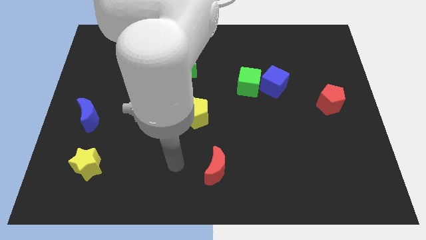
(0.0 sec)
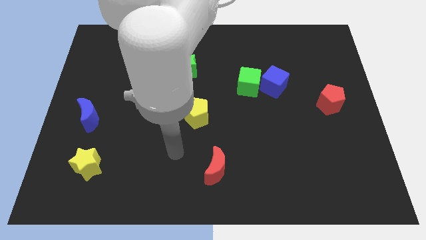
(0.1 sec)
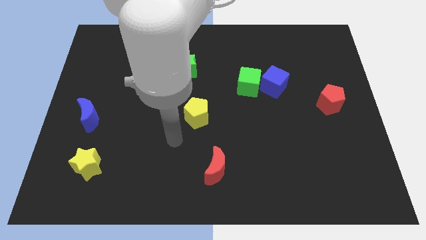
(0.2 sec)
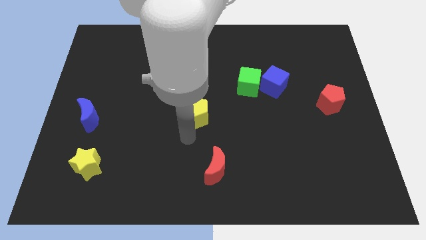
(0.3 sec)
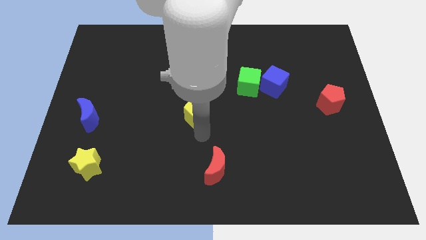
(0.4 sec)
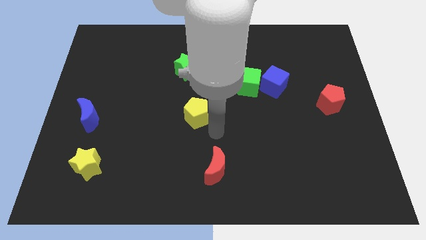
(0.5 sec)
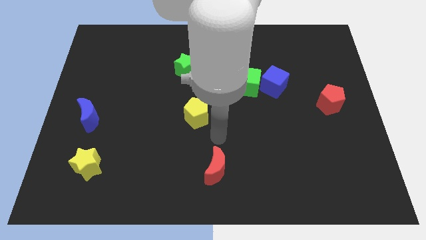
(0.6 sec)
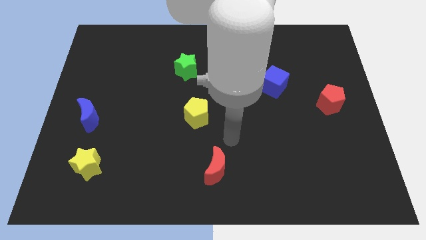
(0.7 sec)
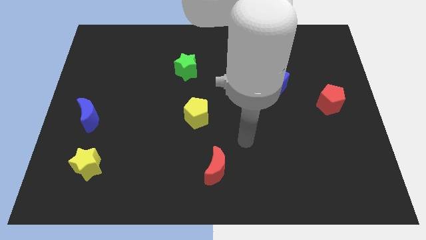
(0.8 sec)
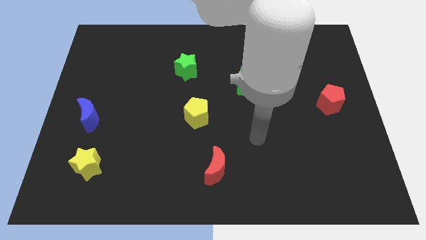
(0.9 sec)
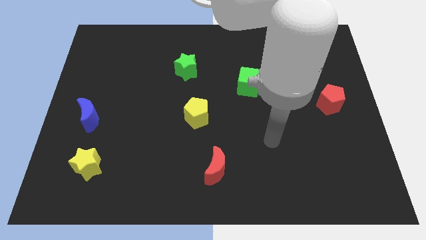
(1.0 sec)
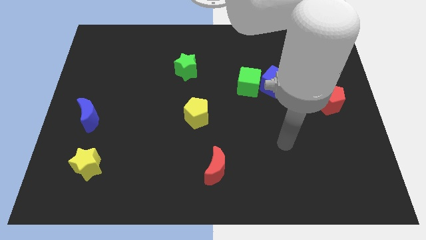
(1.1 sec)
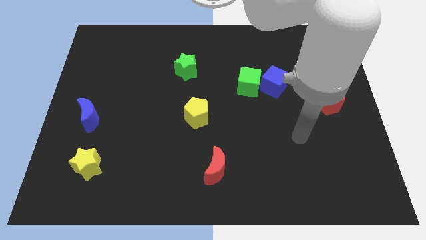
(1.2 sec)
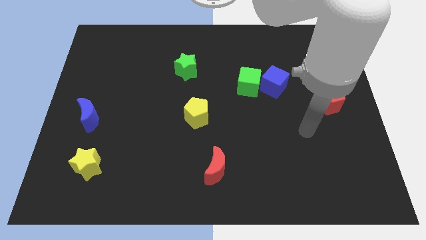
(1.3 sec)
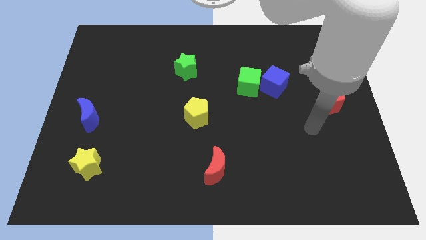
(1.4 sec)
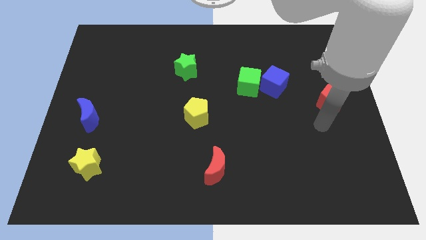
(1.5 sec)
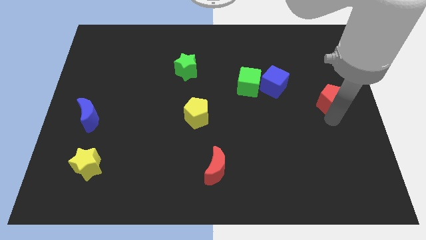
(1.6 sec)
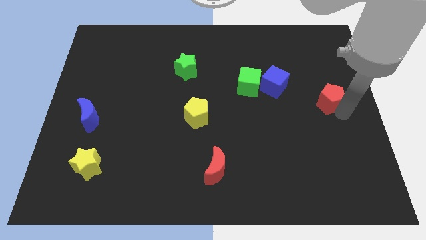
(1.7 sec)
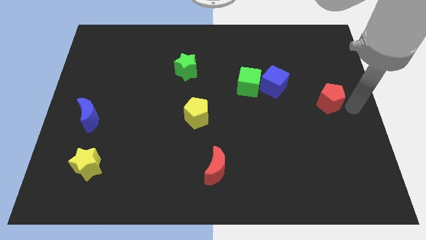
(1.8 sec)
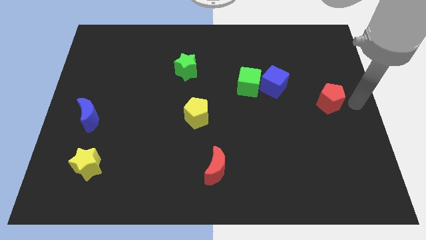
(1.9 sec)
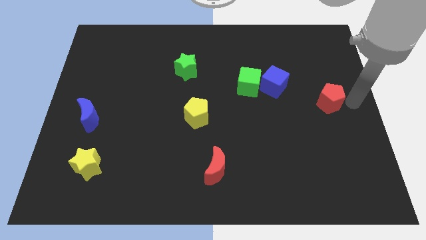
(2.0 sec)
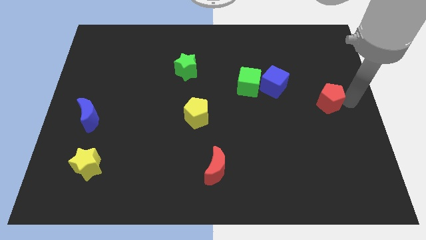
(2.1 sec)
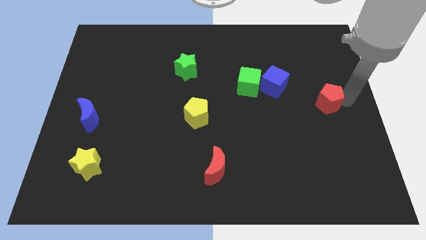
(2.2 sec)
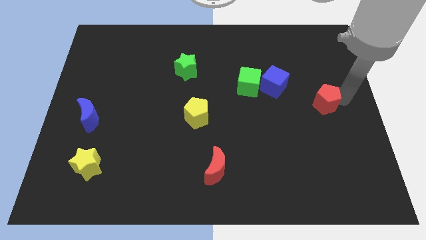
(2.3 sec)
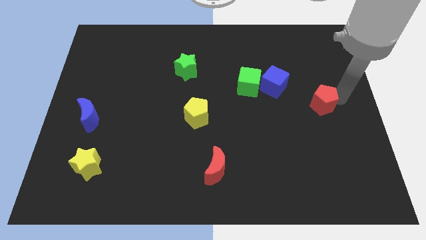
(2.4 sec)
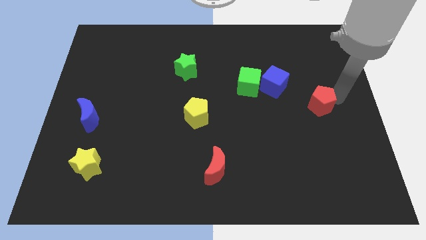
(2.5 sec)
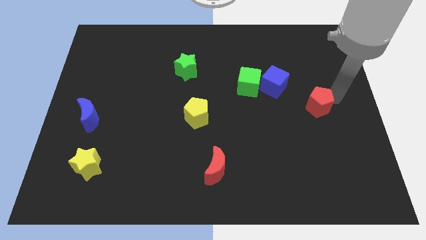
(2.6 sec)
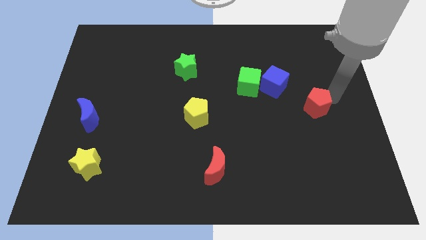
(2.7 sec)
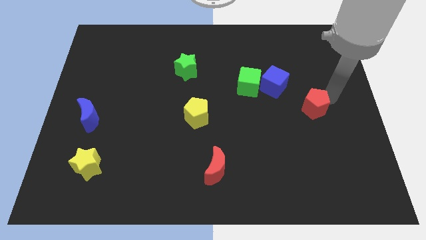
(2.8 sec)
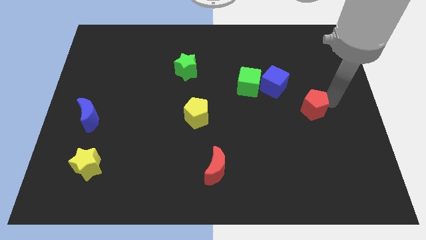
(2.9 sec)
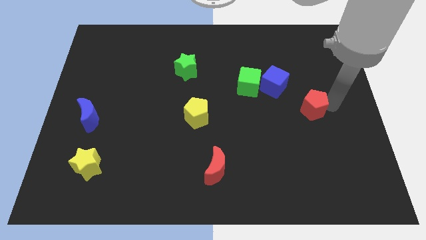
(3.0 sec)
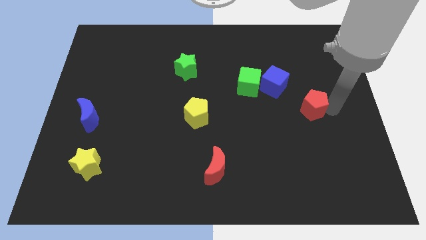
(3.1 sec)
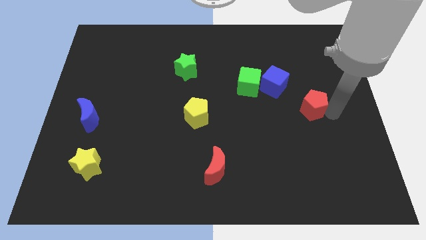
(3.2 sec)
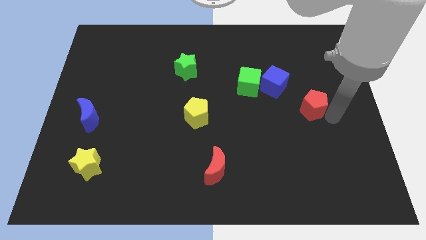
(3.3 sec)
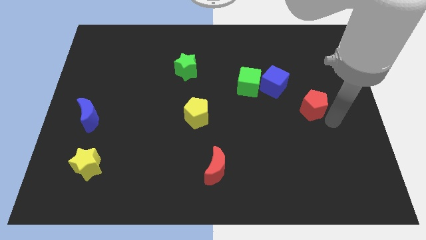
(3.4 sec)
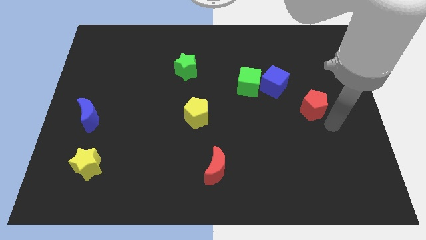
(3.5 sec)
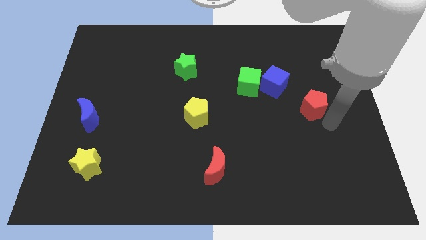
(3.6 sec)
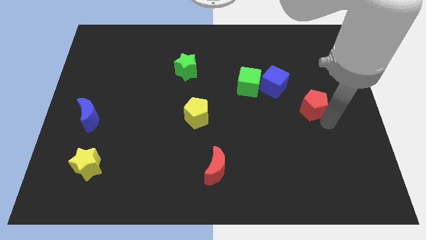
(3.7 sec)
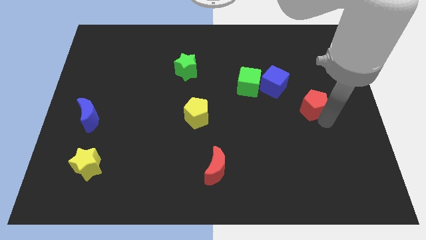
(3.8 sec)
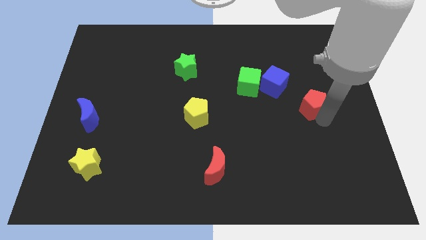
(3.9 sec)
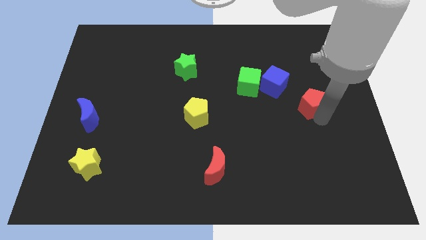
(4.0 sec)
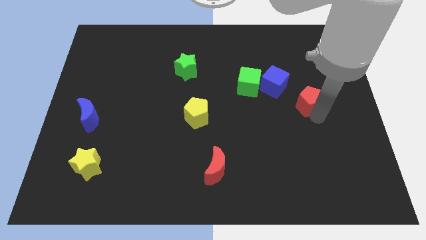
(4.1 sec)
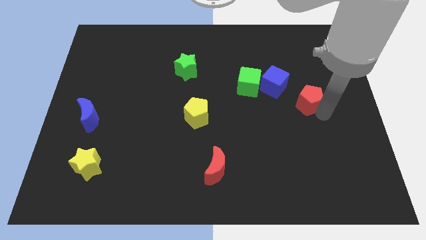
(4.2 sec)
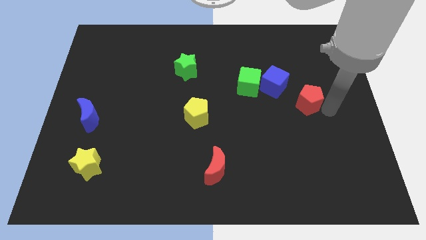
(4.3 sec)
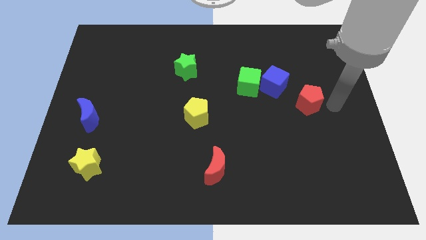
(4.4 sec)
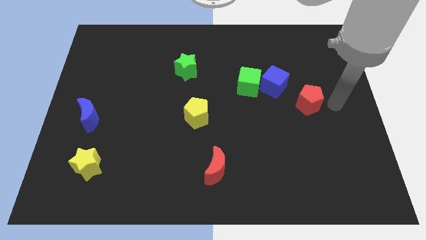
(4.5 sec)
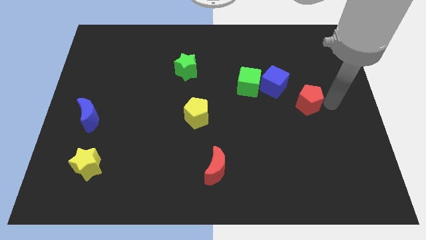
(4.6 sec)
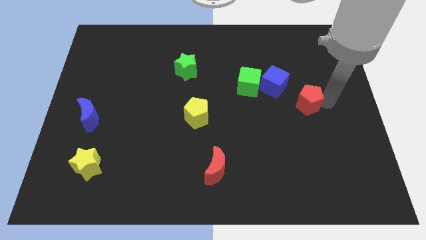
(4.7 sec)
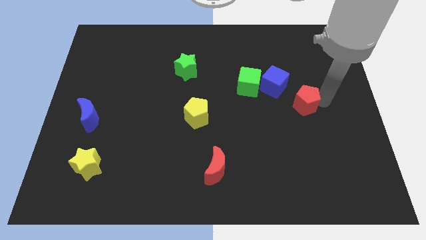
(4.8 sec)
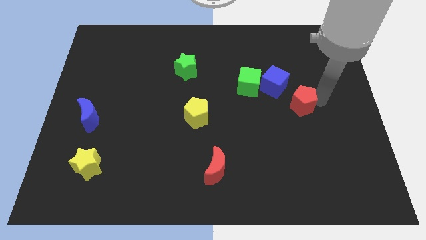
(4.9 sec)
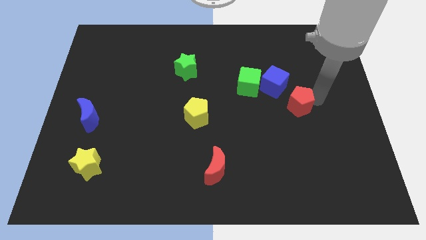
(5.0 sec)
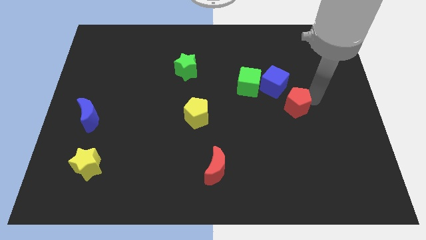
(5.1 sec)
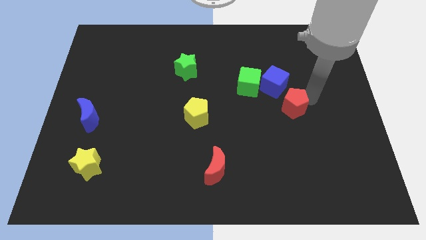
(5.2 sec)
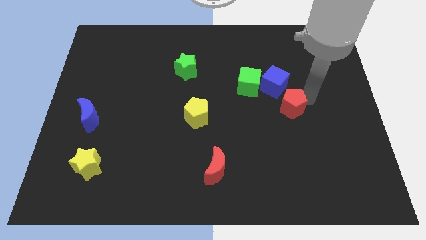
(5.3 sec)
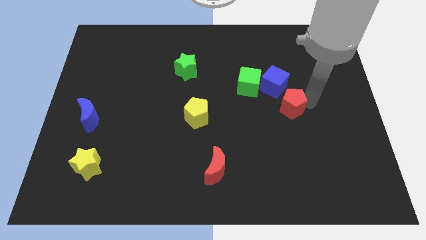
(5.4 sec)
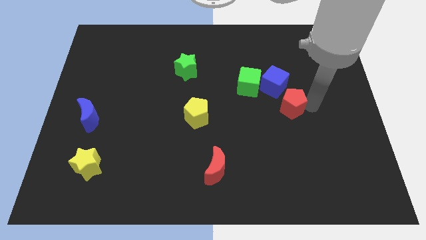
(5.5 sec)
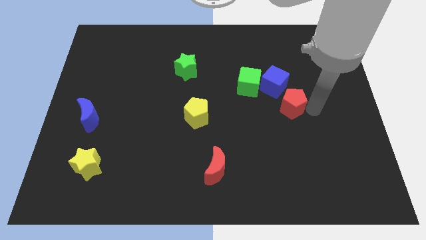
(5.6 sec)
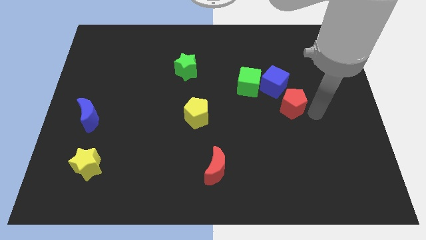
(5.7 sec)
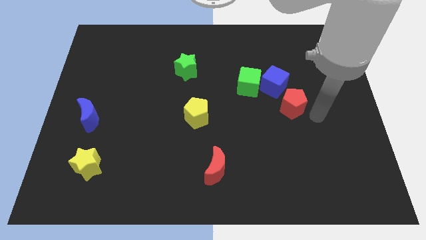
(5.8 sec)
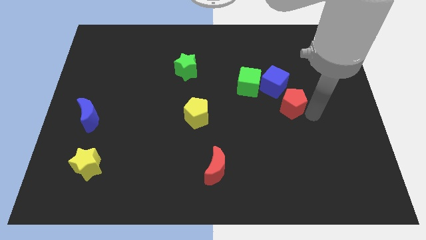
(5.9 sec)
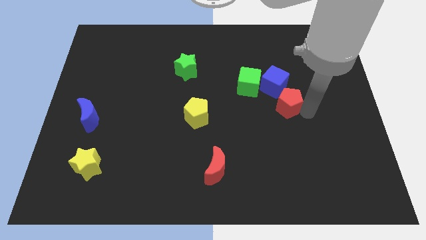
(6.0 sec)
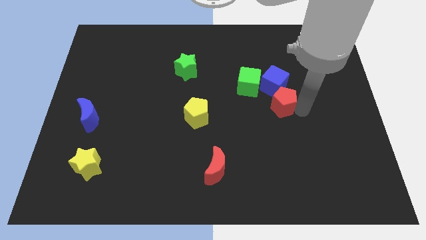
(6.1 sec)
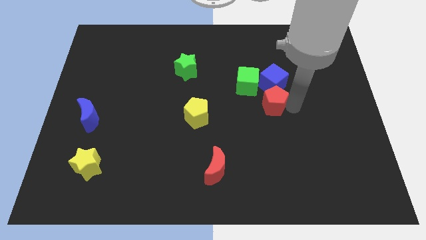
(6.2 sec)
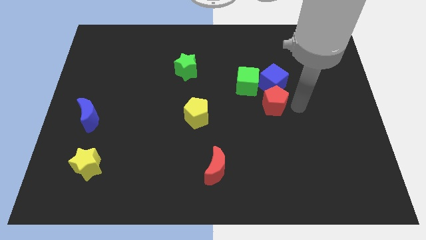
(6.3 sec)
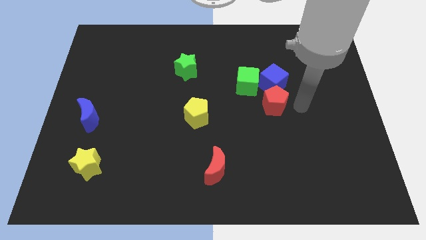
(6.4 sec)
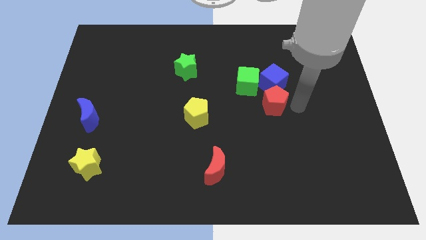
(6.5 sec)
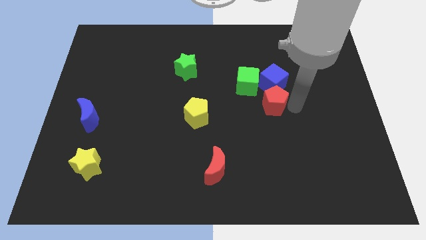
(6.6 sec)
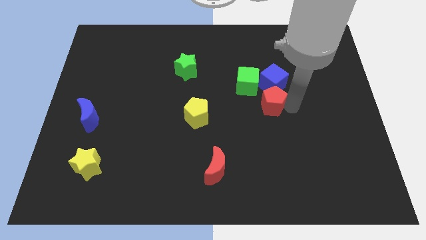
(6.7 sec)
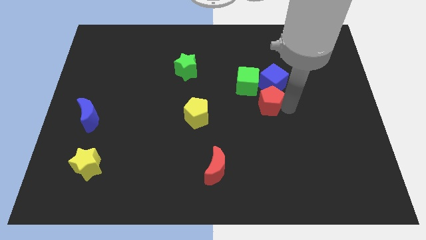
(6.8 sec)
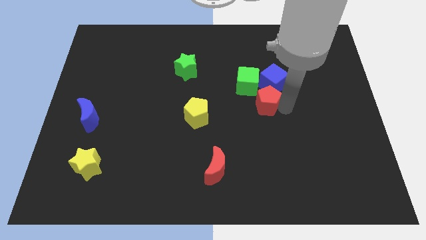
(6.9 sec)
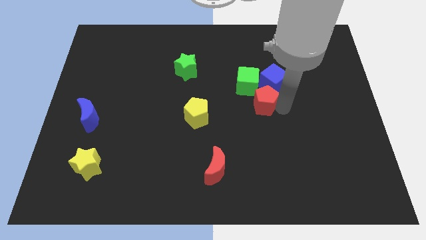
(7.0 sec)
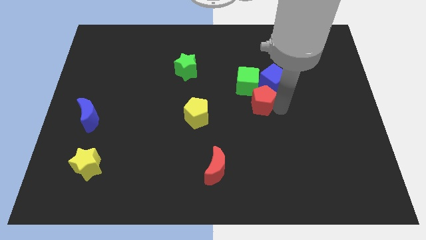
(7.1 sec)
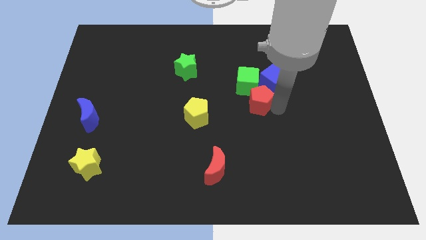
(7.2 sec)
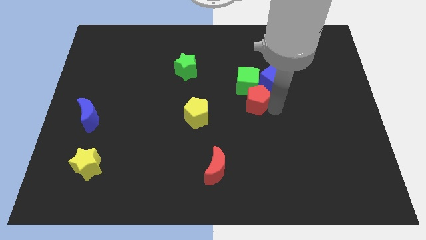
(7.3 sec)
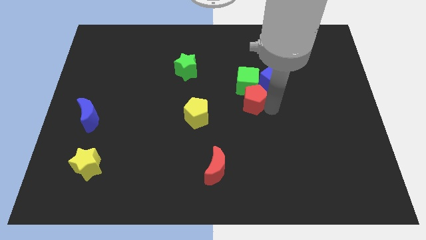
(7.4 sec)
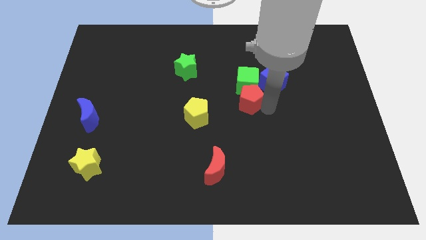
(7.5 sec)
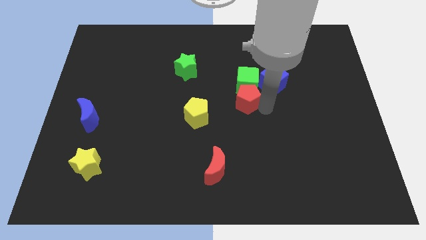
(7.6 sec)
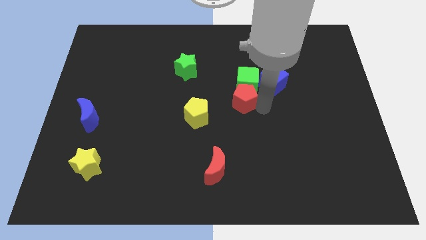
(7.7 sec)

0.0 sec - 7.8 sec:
slide the red pentagon to the left

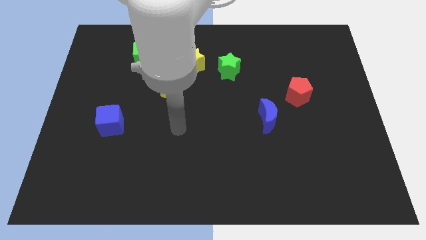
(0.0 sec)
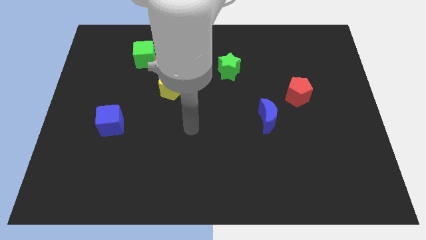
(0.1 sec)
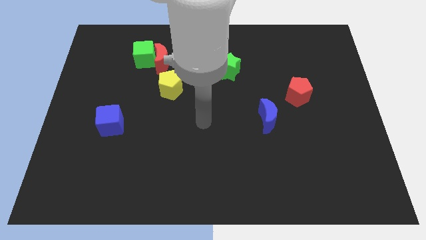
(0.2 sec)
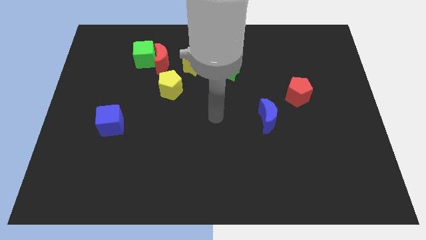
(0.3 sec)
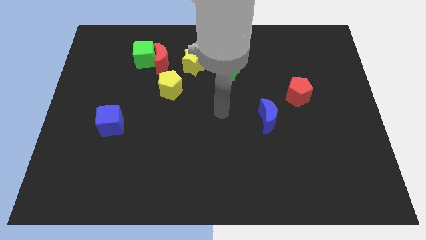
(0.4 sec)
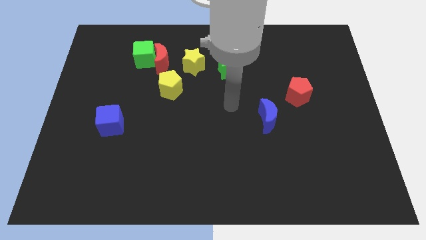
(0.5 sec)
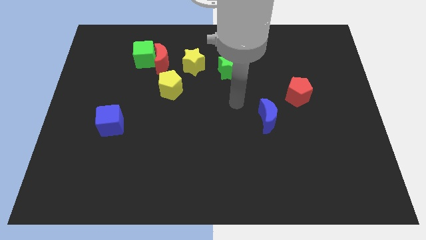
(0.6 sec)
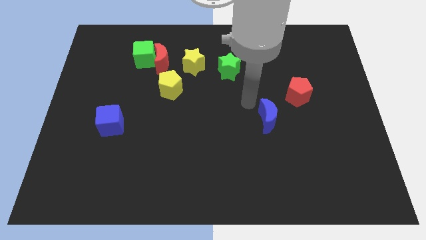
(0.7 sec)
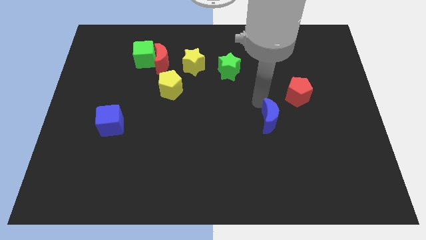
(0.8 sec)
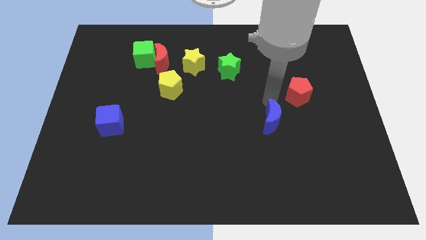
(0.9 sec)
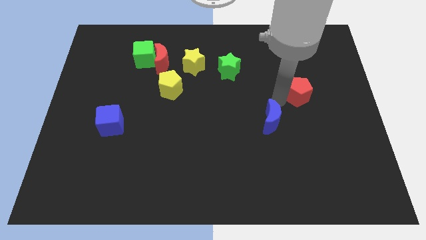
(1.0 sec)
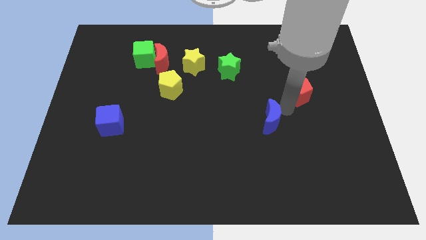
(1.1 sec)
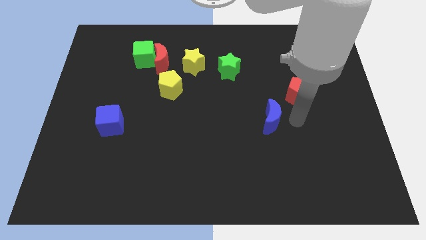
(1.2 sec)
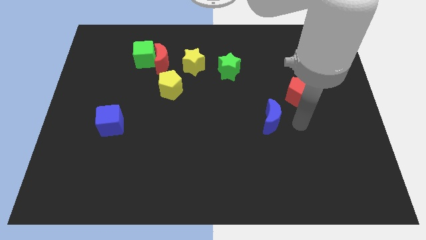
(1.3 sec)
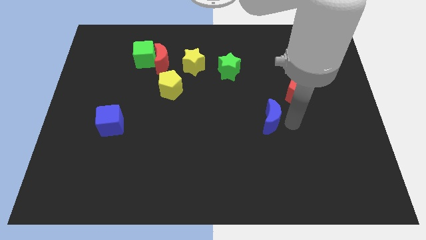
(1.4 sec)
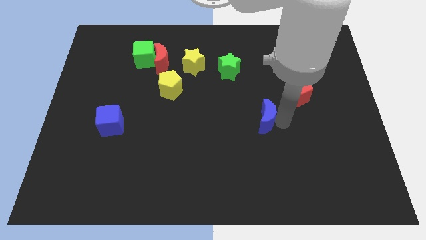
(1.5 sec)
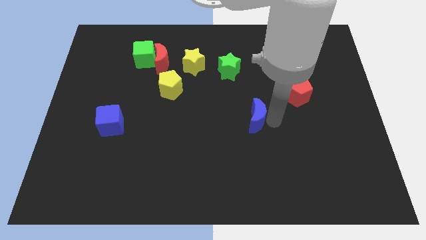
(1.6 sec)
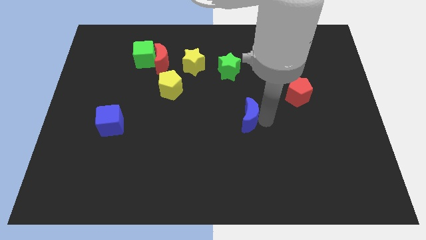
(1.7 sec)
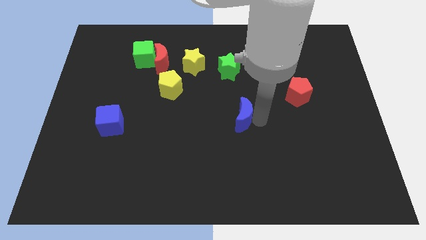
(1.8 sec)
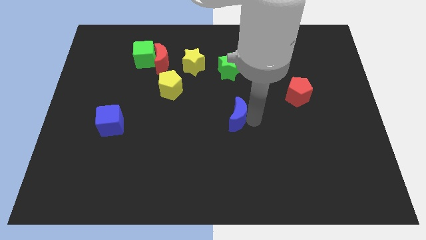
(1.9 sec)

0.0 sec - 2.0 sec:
move the blue moon left somewhat
